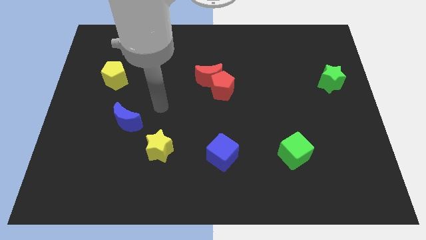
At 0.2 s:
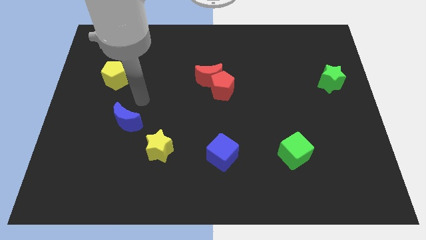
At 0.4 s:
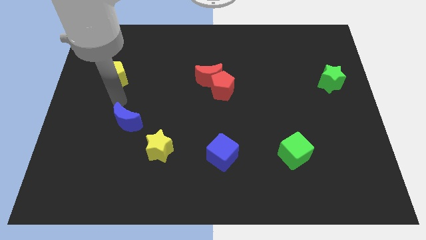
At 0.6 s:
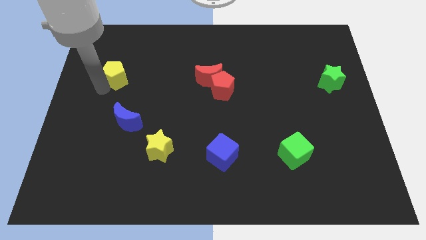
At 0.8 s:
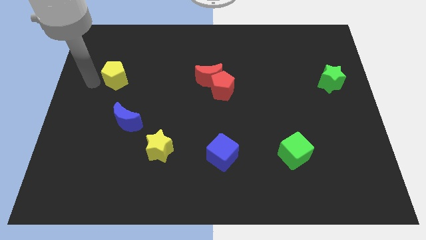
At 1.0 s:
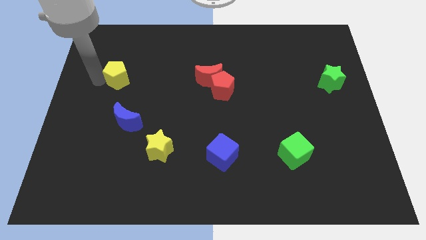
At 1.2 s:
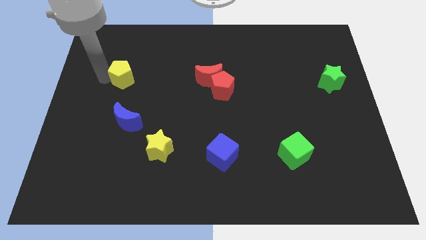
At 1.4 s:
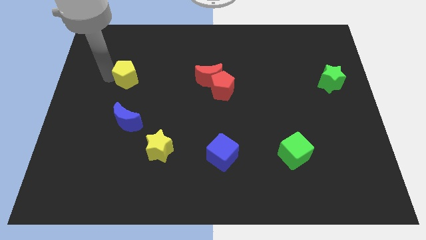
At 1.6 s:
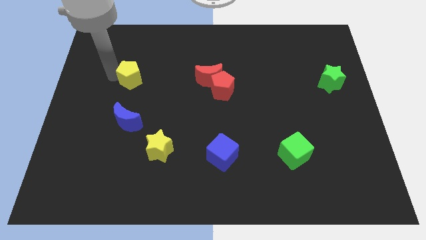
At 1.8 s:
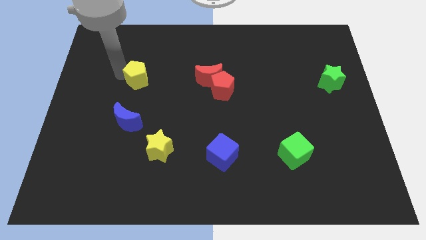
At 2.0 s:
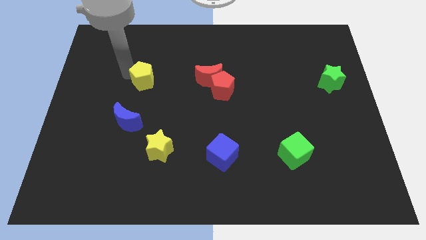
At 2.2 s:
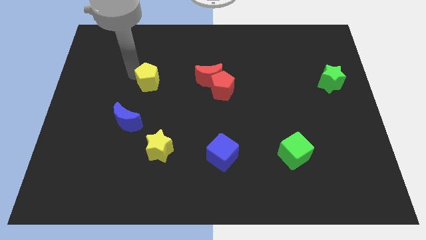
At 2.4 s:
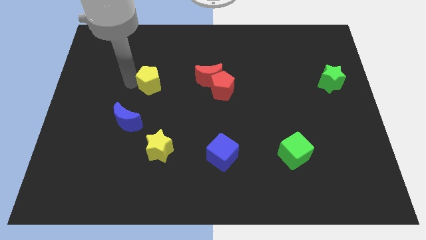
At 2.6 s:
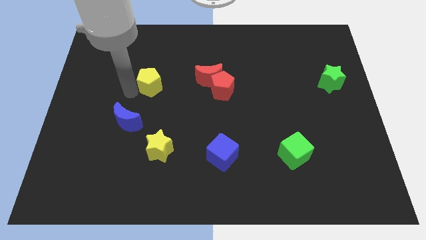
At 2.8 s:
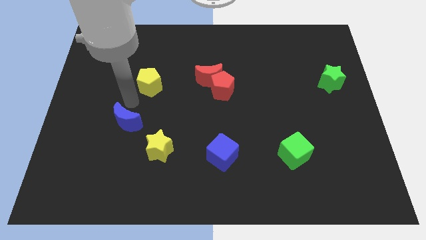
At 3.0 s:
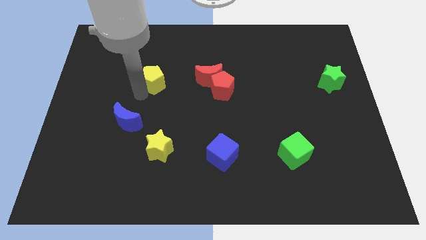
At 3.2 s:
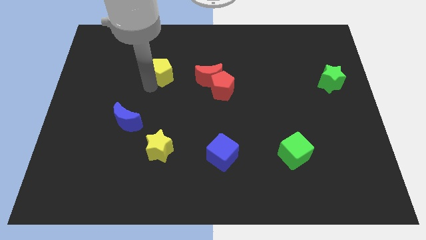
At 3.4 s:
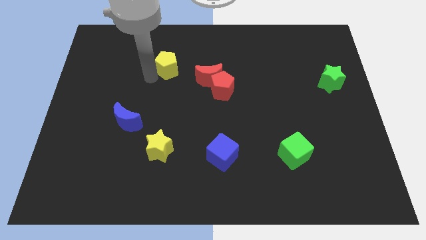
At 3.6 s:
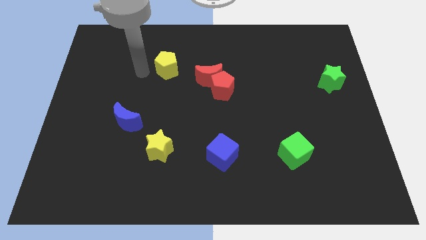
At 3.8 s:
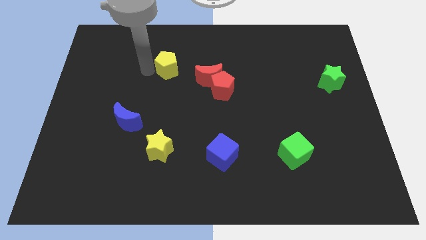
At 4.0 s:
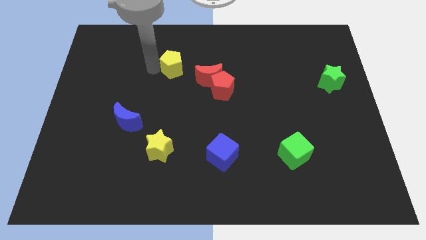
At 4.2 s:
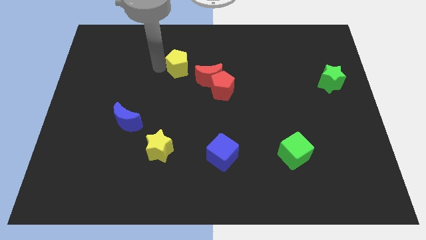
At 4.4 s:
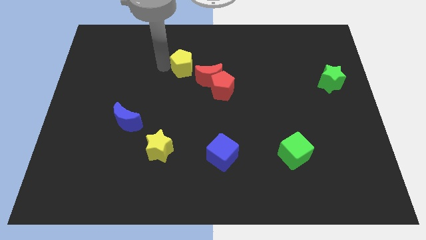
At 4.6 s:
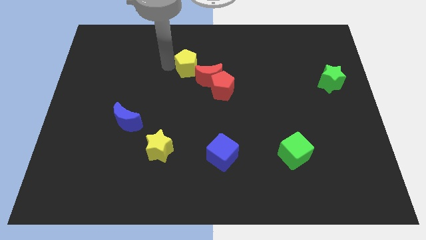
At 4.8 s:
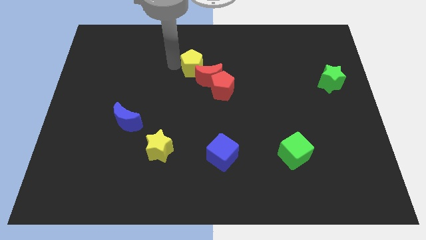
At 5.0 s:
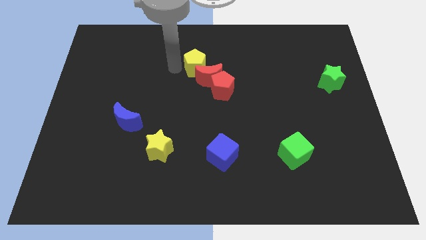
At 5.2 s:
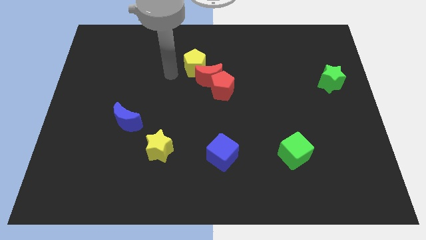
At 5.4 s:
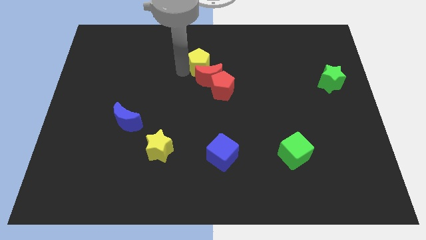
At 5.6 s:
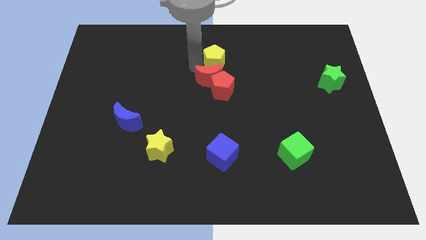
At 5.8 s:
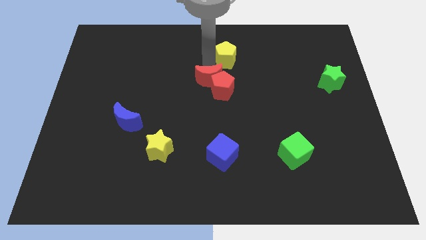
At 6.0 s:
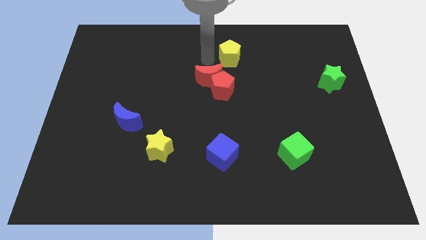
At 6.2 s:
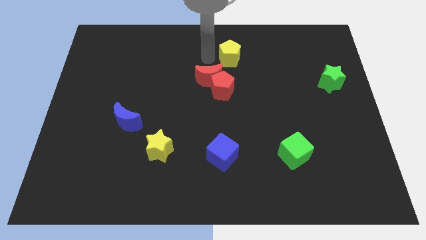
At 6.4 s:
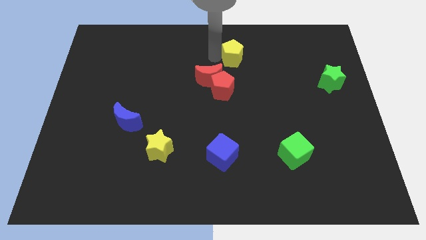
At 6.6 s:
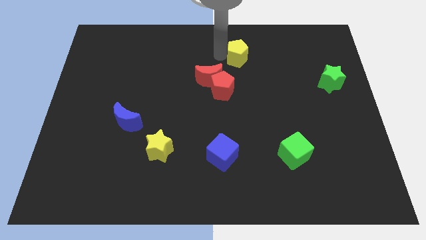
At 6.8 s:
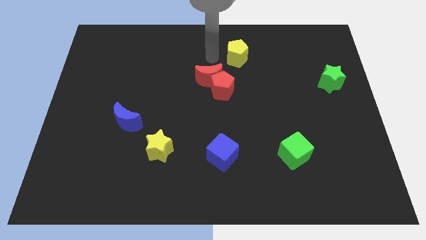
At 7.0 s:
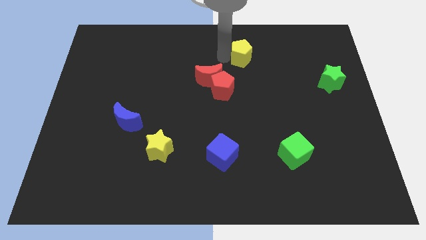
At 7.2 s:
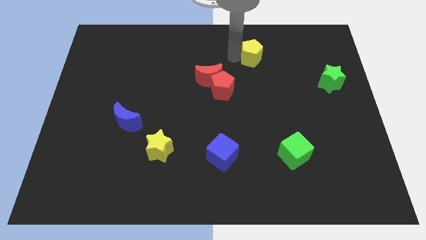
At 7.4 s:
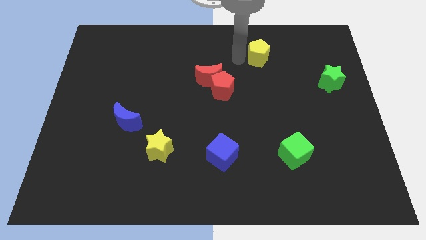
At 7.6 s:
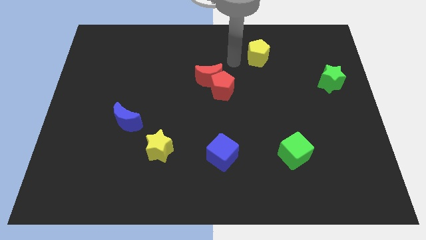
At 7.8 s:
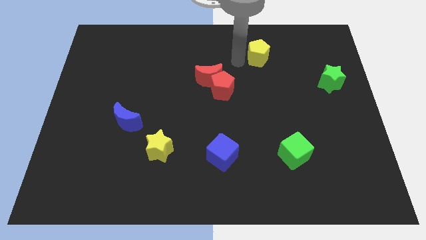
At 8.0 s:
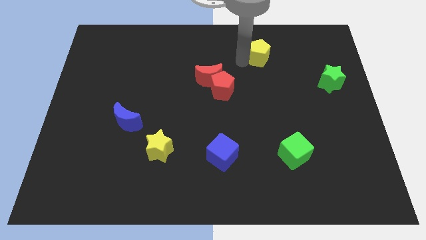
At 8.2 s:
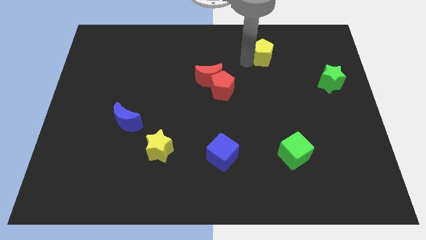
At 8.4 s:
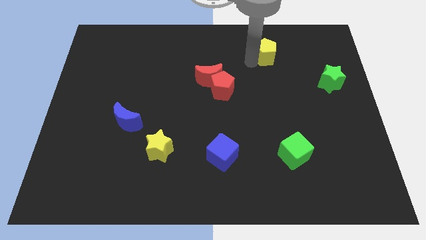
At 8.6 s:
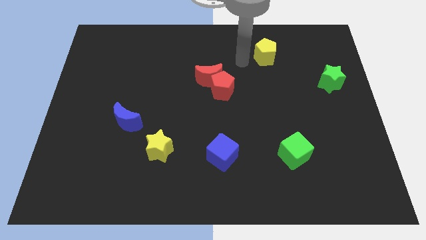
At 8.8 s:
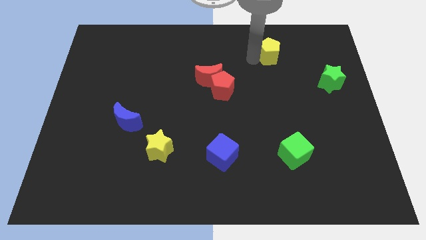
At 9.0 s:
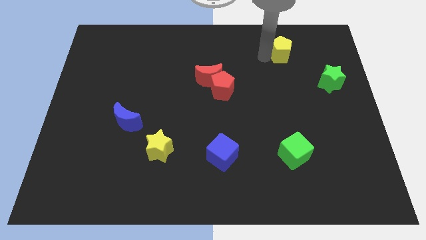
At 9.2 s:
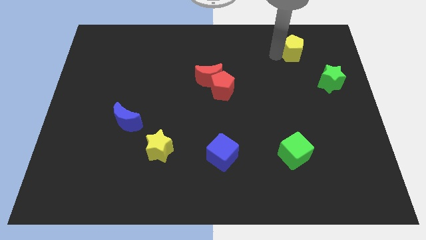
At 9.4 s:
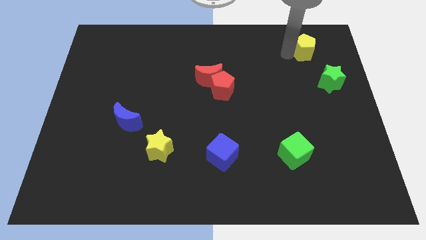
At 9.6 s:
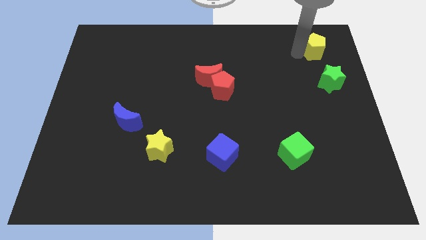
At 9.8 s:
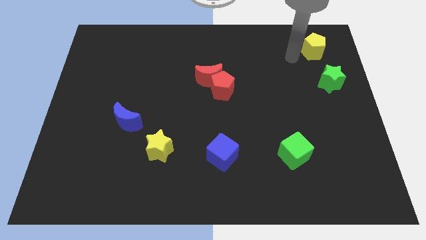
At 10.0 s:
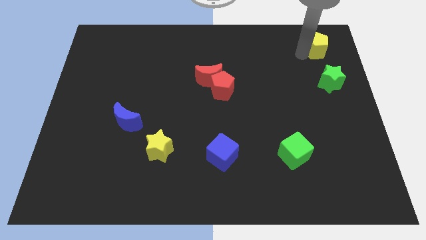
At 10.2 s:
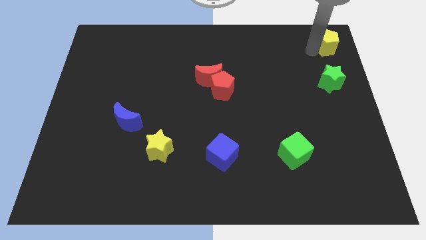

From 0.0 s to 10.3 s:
put the yellow pentagon to the top right

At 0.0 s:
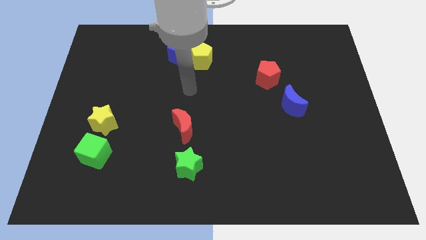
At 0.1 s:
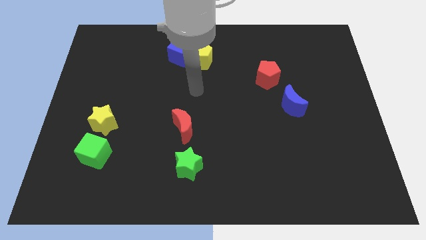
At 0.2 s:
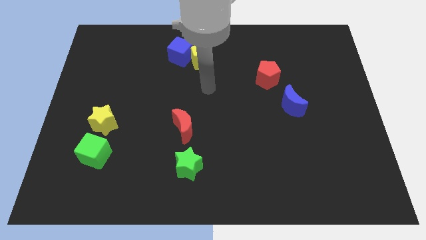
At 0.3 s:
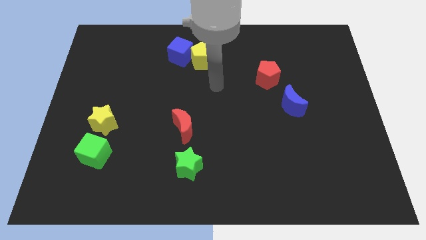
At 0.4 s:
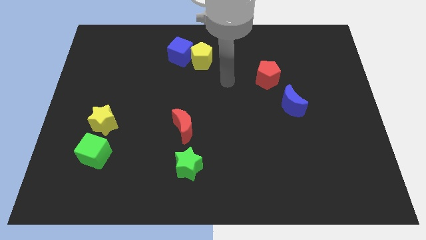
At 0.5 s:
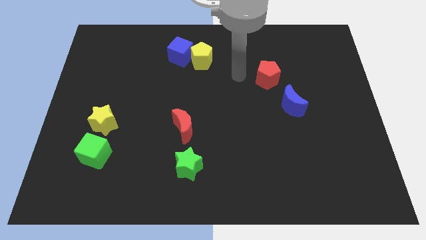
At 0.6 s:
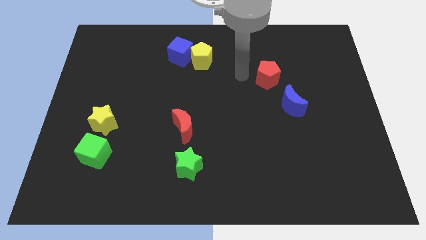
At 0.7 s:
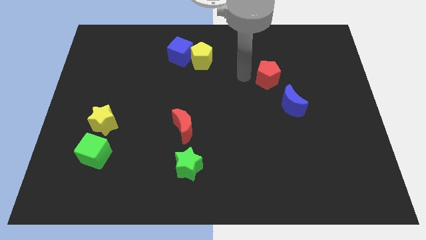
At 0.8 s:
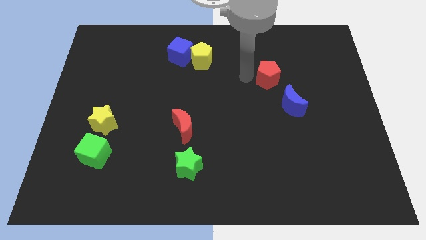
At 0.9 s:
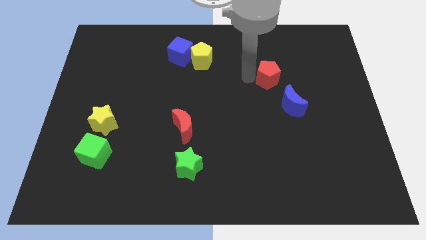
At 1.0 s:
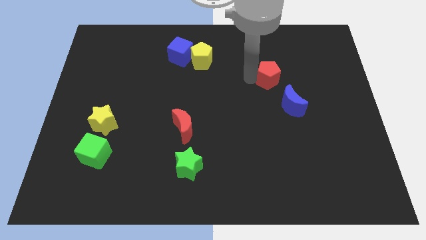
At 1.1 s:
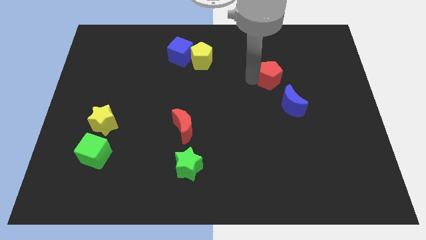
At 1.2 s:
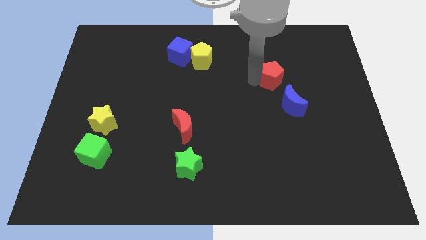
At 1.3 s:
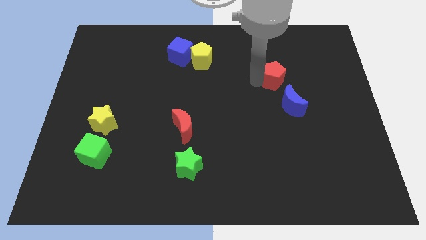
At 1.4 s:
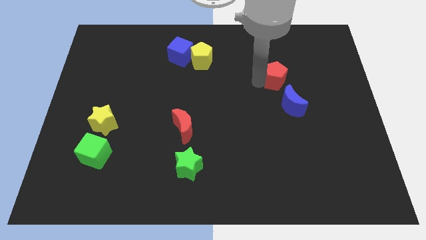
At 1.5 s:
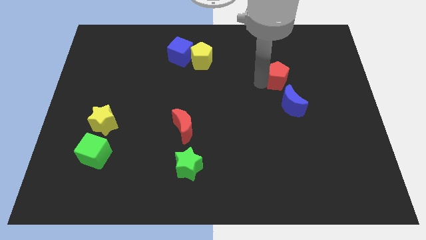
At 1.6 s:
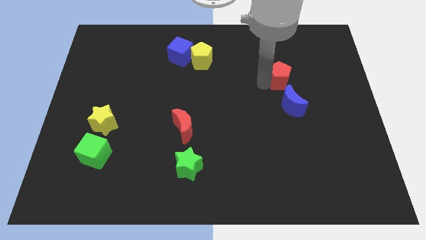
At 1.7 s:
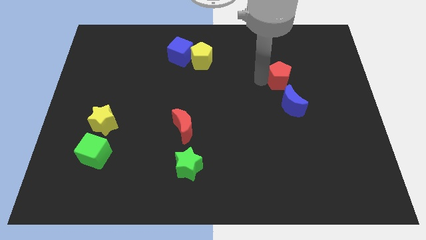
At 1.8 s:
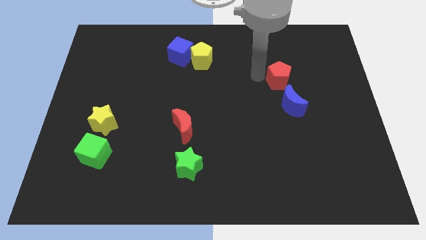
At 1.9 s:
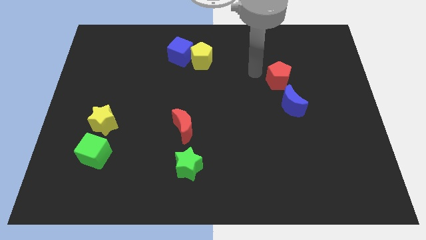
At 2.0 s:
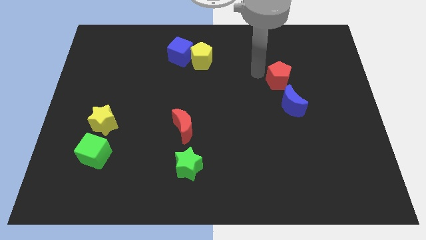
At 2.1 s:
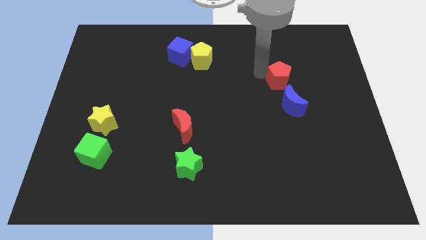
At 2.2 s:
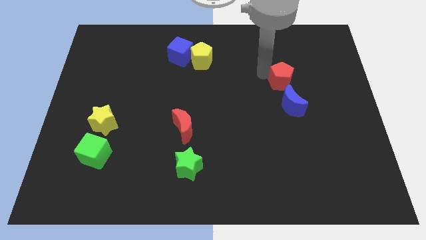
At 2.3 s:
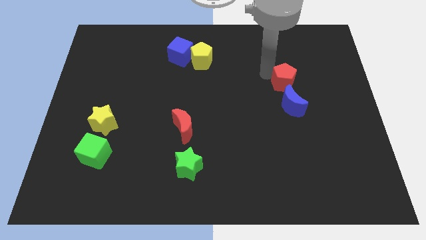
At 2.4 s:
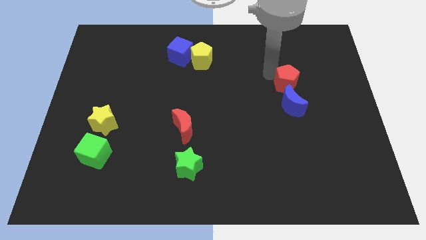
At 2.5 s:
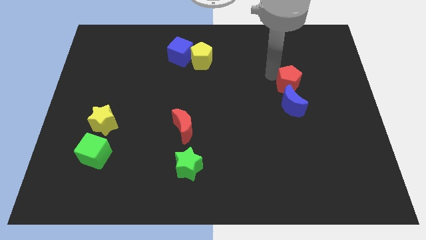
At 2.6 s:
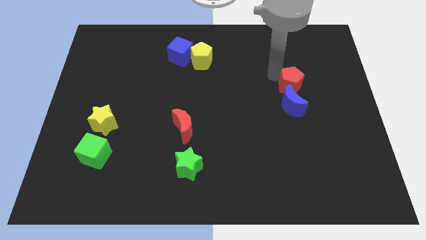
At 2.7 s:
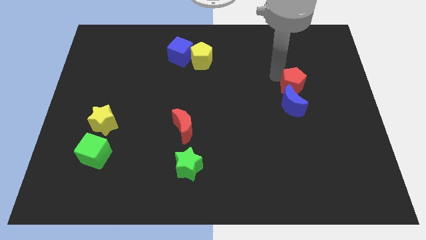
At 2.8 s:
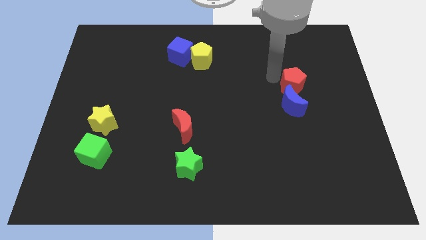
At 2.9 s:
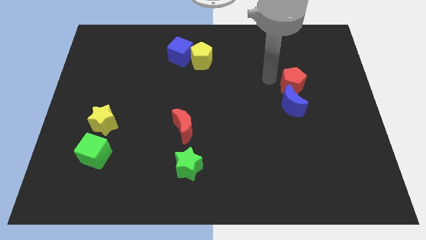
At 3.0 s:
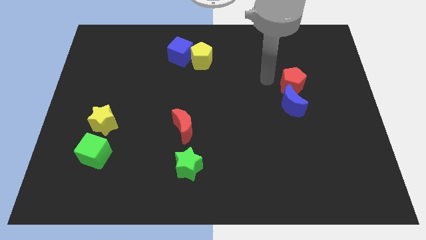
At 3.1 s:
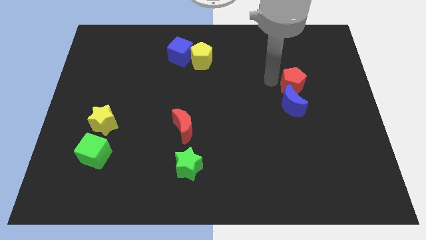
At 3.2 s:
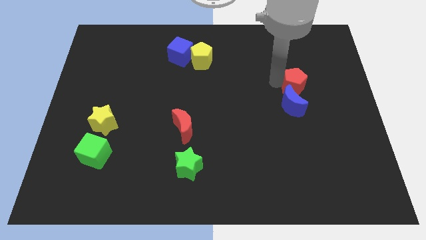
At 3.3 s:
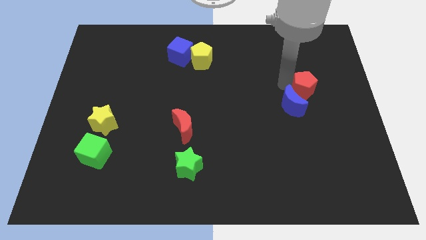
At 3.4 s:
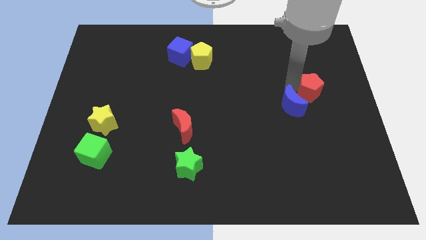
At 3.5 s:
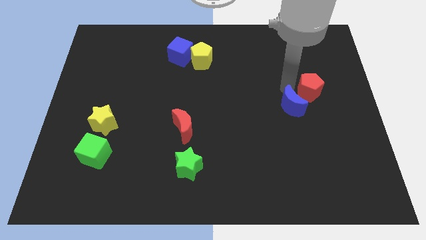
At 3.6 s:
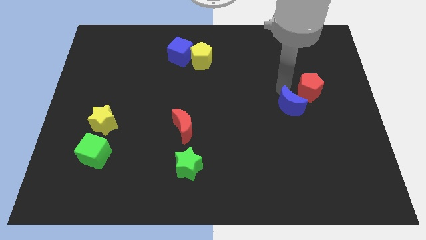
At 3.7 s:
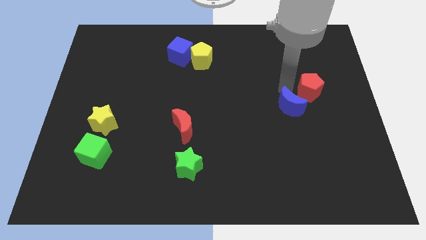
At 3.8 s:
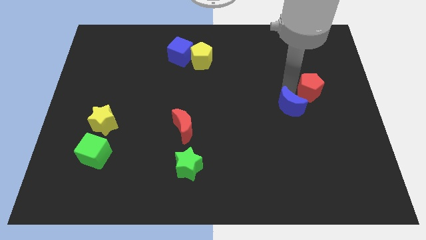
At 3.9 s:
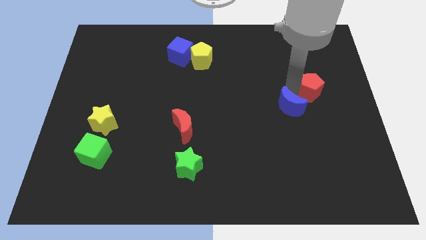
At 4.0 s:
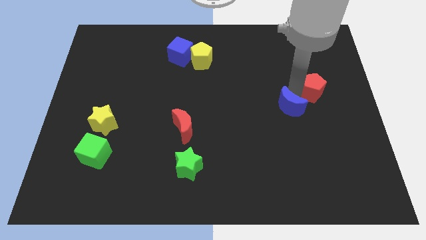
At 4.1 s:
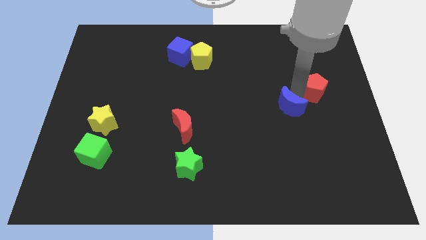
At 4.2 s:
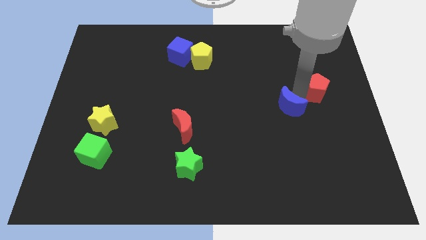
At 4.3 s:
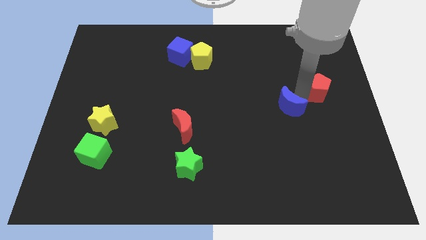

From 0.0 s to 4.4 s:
push the red pentagon to the right side of the board
